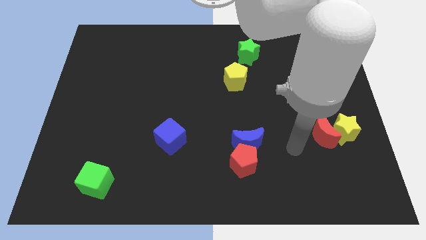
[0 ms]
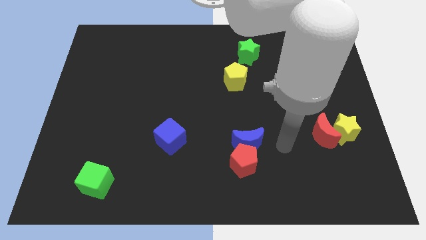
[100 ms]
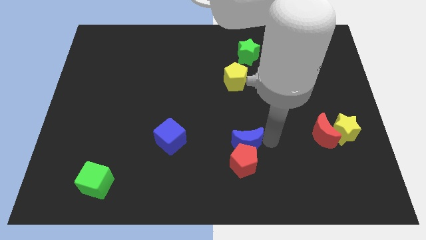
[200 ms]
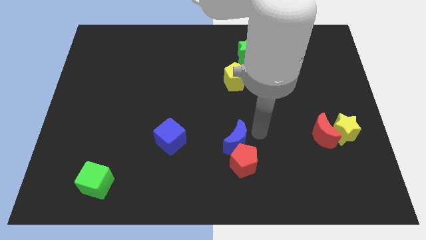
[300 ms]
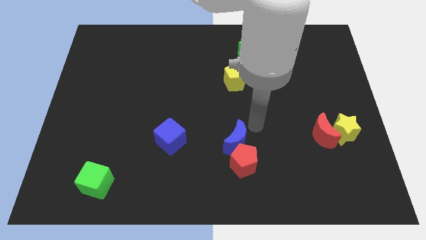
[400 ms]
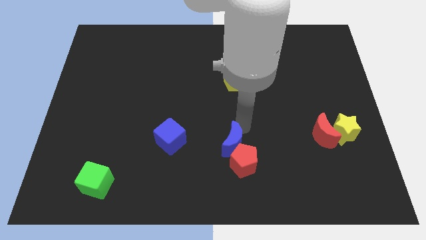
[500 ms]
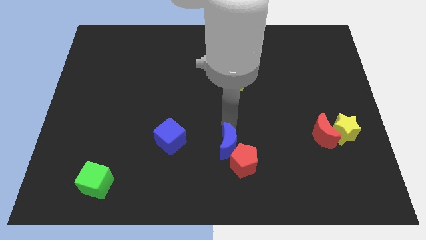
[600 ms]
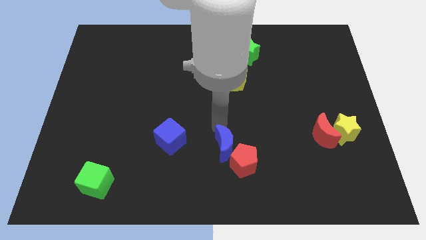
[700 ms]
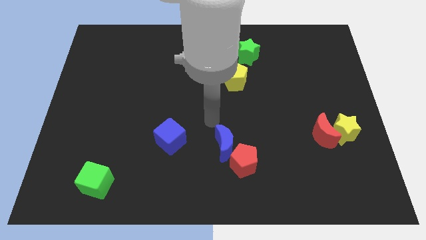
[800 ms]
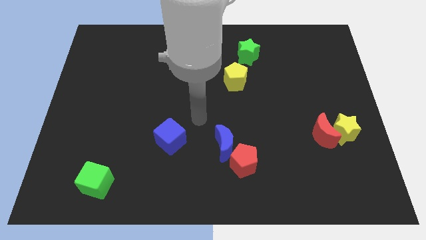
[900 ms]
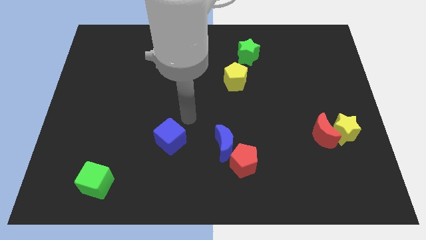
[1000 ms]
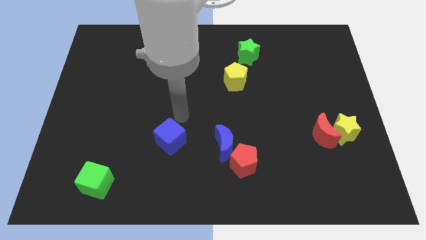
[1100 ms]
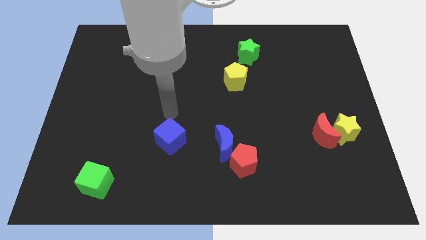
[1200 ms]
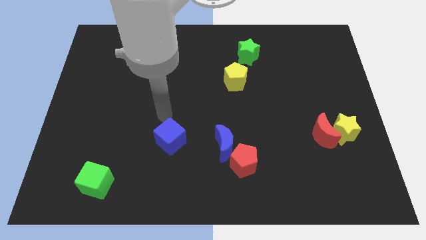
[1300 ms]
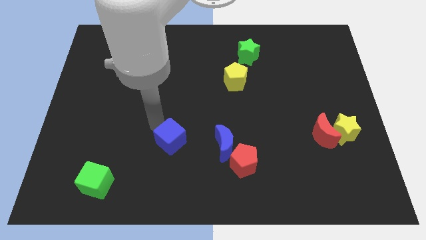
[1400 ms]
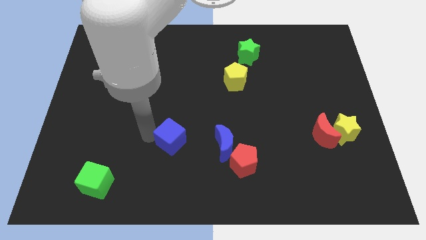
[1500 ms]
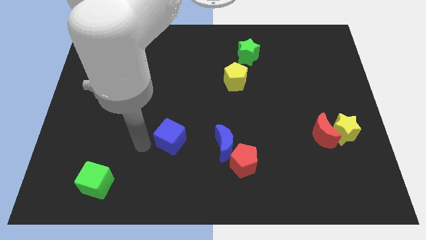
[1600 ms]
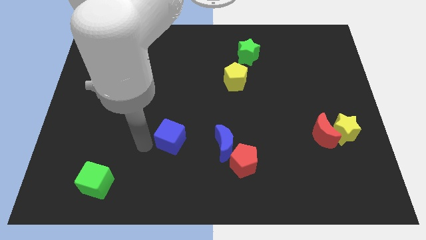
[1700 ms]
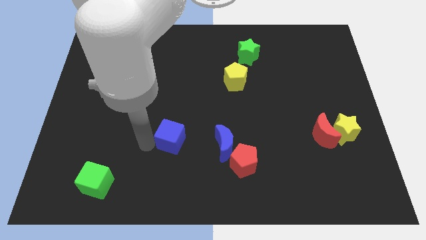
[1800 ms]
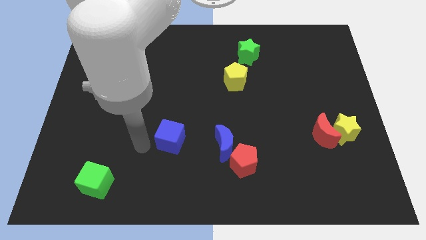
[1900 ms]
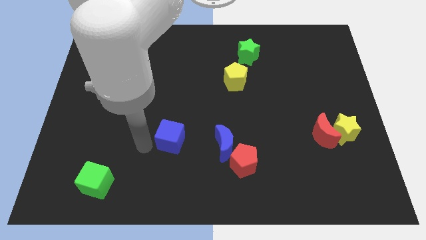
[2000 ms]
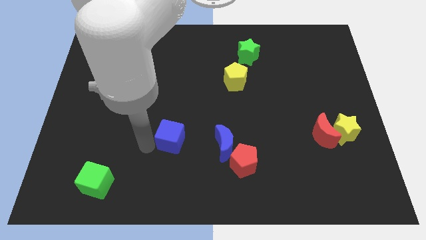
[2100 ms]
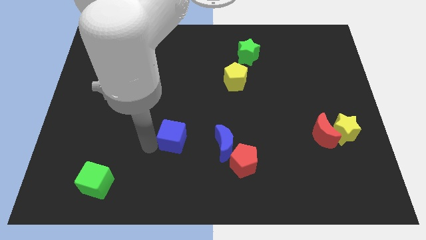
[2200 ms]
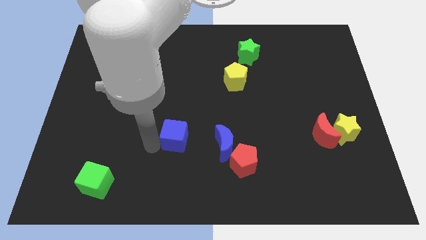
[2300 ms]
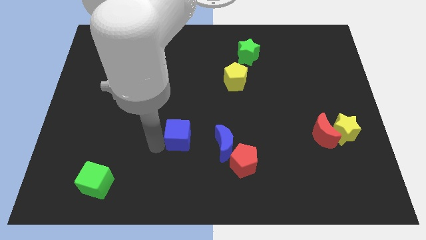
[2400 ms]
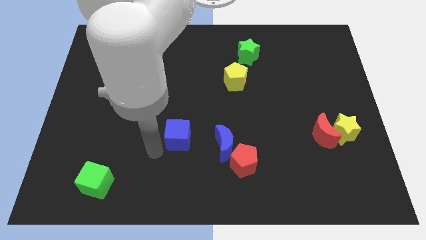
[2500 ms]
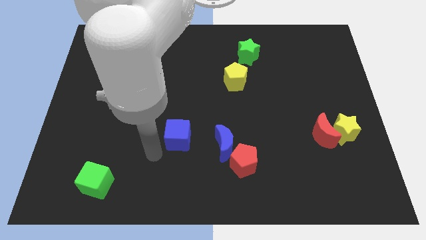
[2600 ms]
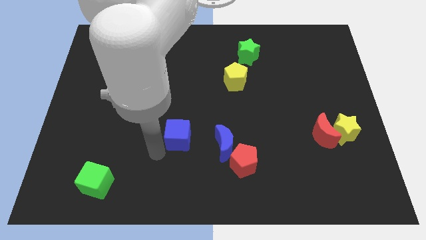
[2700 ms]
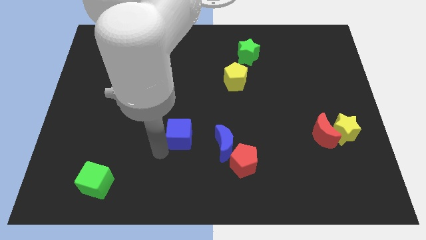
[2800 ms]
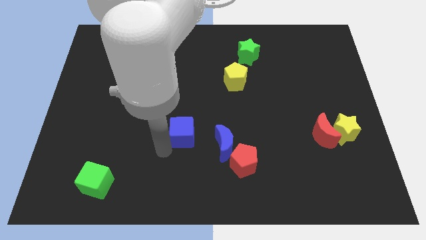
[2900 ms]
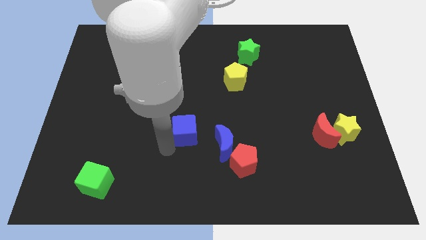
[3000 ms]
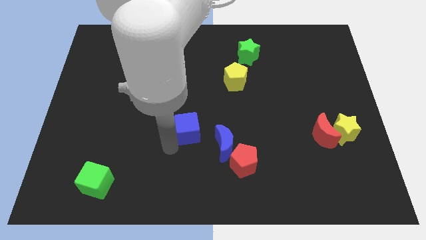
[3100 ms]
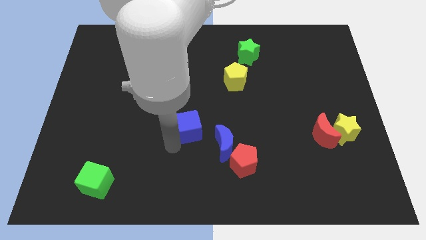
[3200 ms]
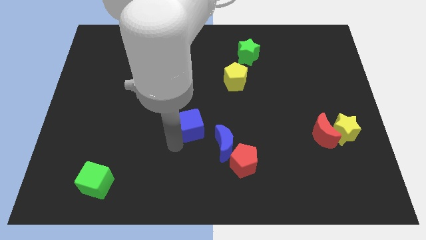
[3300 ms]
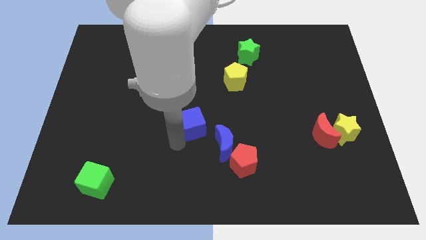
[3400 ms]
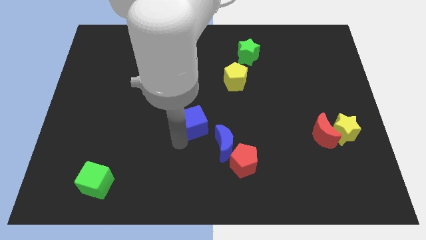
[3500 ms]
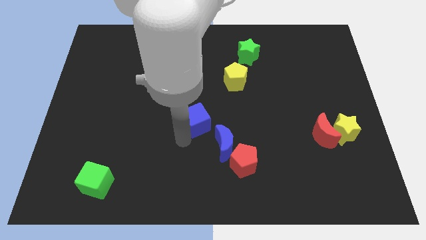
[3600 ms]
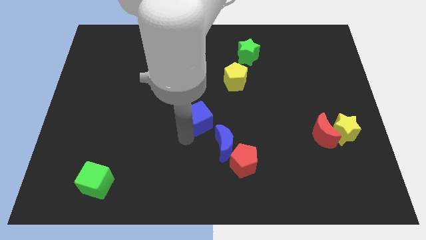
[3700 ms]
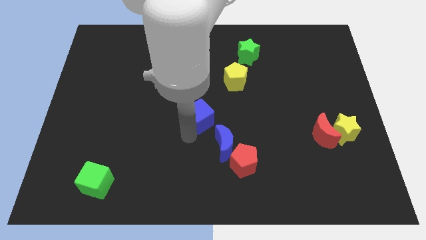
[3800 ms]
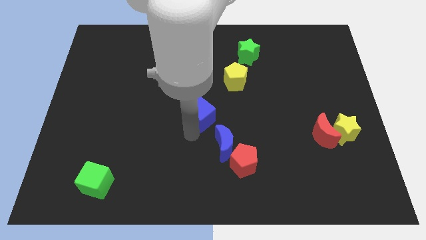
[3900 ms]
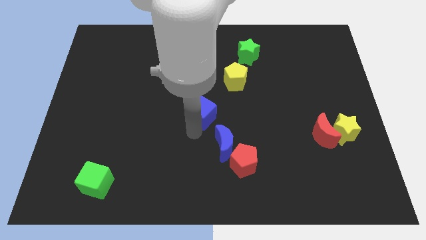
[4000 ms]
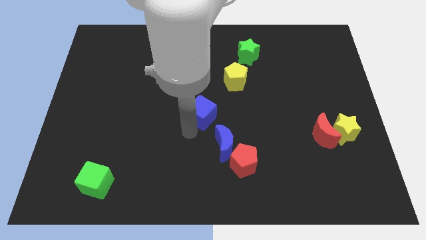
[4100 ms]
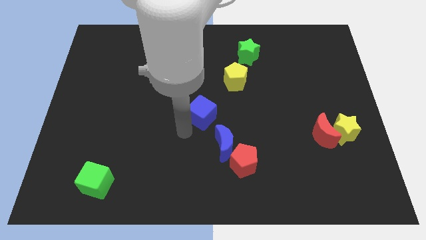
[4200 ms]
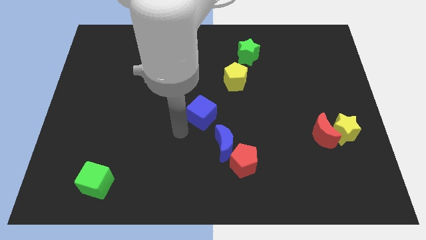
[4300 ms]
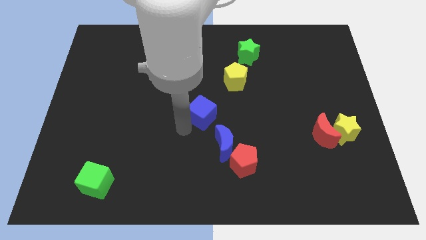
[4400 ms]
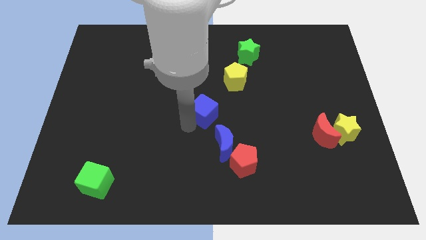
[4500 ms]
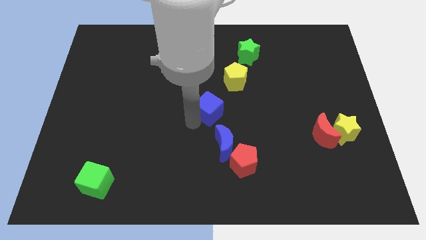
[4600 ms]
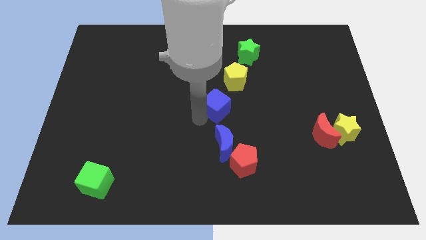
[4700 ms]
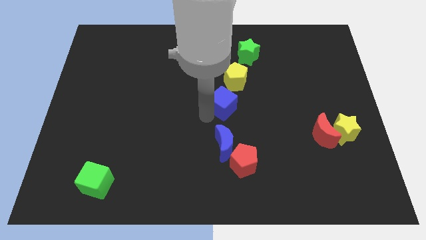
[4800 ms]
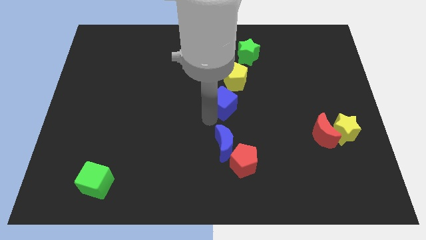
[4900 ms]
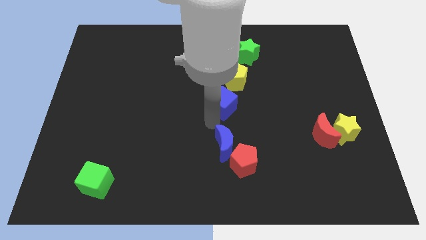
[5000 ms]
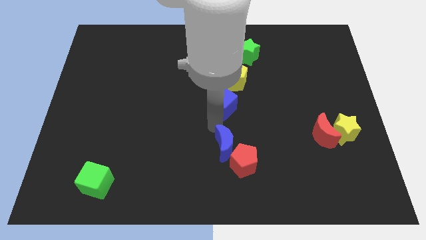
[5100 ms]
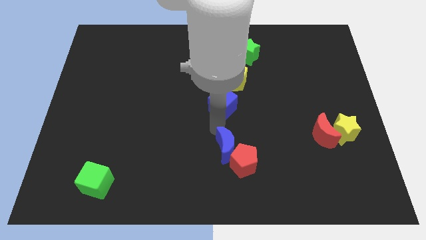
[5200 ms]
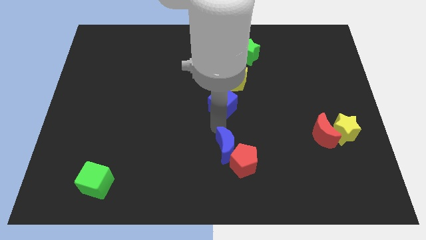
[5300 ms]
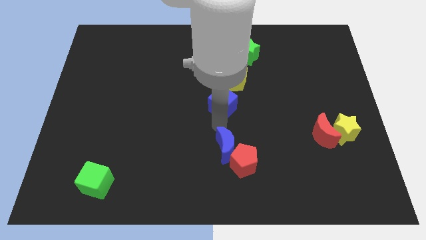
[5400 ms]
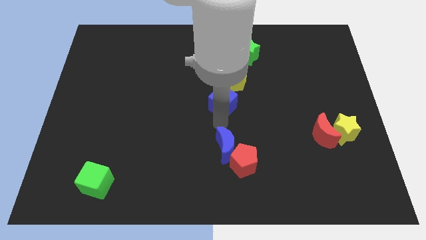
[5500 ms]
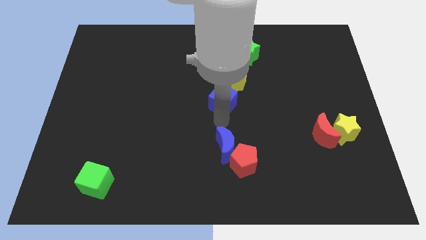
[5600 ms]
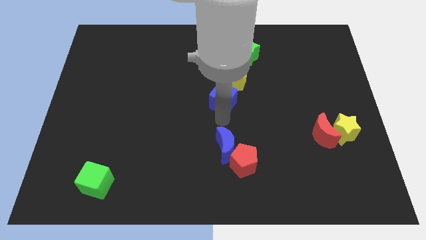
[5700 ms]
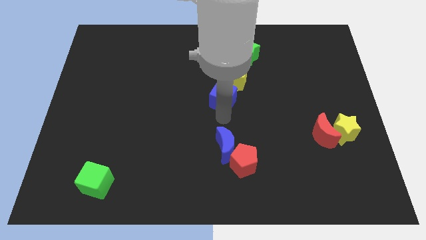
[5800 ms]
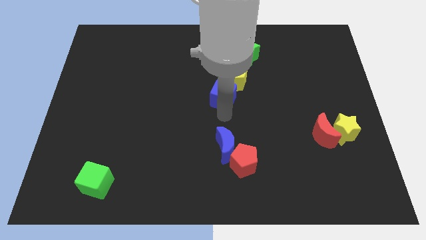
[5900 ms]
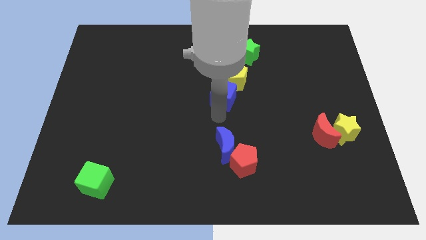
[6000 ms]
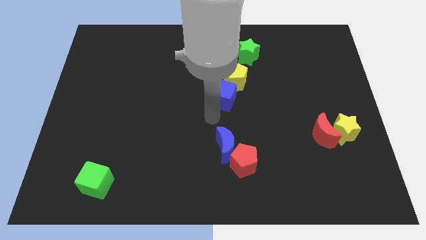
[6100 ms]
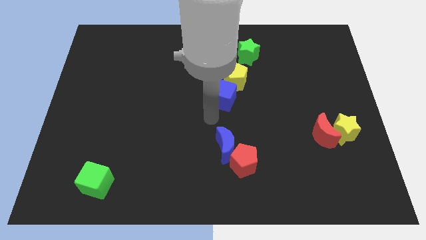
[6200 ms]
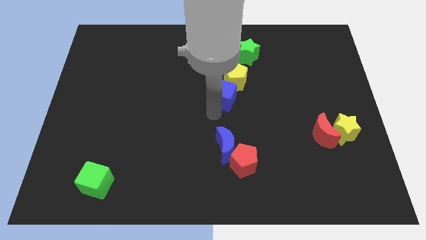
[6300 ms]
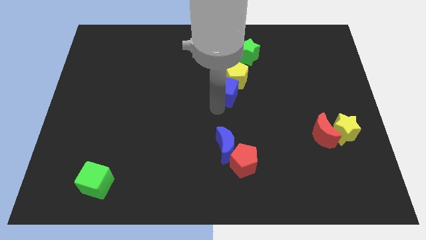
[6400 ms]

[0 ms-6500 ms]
put the blue cube towards the yellow pentagon

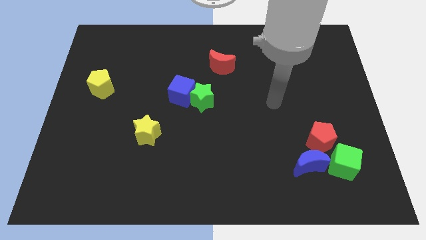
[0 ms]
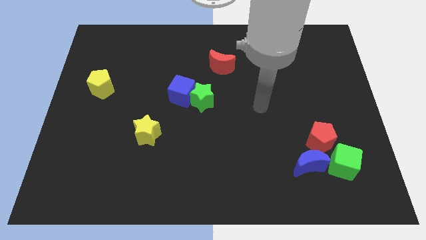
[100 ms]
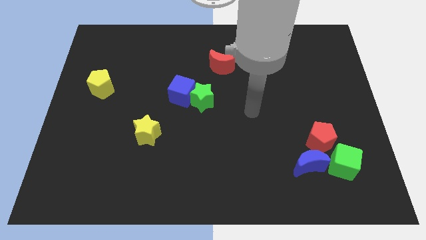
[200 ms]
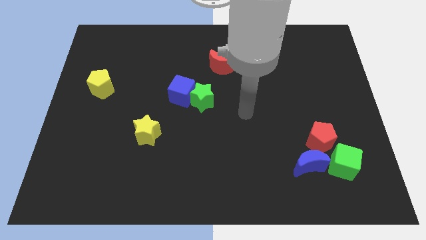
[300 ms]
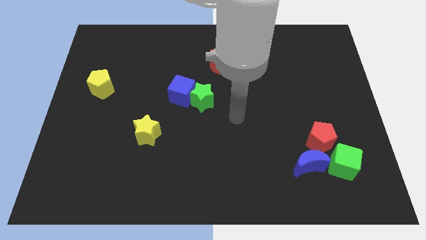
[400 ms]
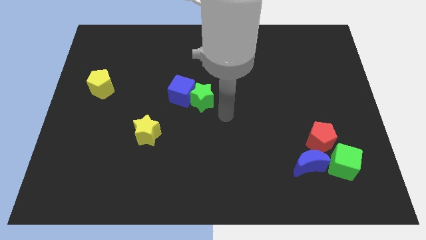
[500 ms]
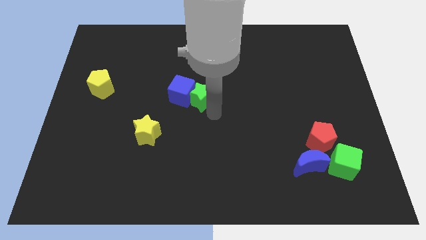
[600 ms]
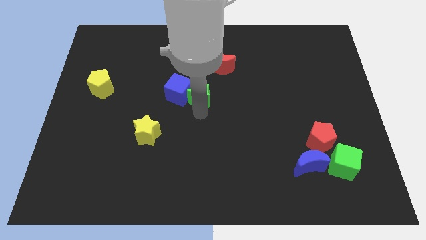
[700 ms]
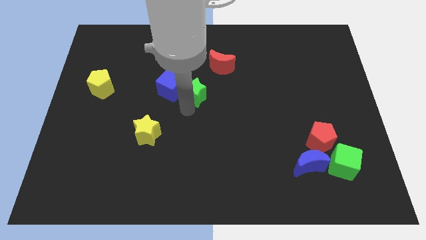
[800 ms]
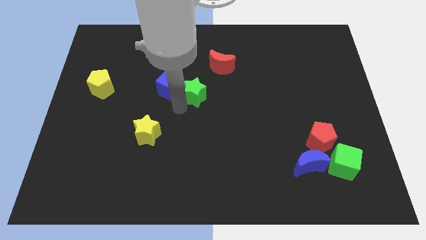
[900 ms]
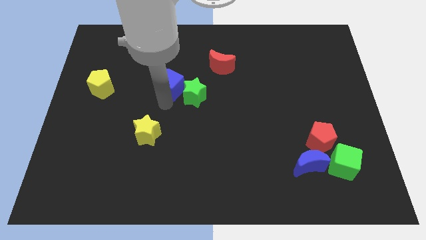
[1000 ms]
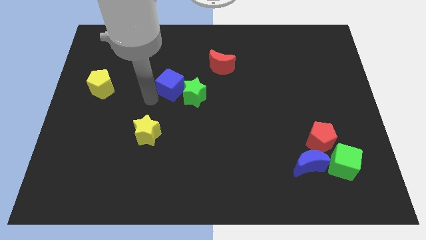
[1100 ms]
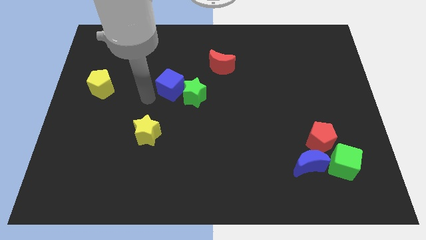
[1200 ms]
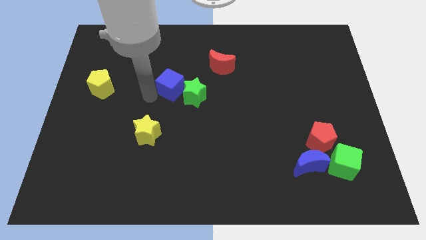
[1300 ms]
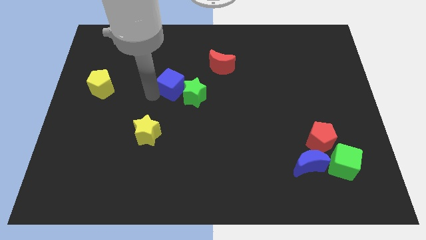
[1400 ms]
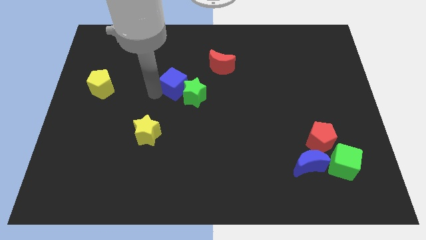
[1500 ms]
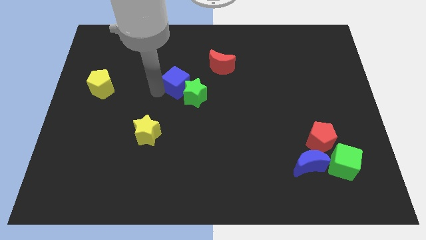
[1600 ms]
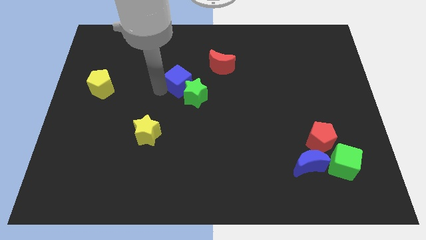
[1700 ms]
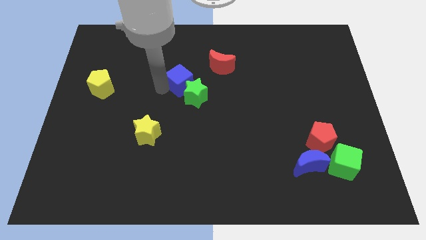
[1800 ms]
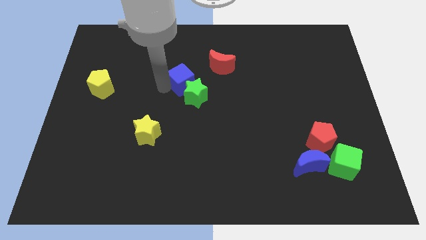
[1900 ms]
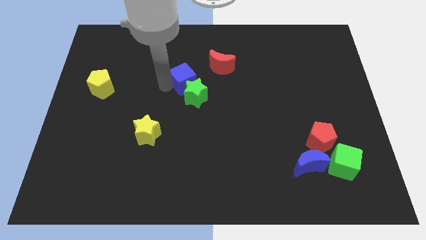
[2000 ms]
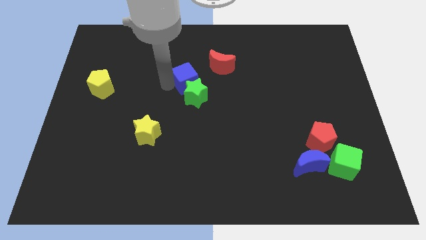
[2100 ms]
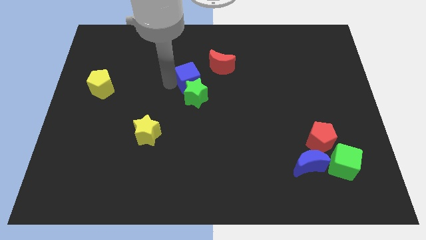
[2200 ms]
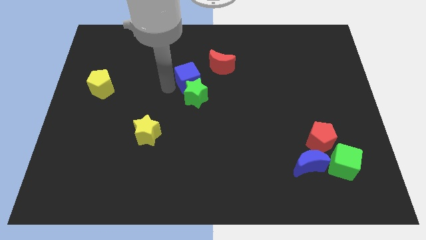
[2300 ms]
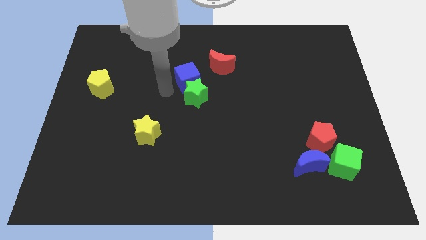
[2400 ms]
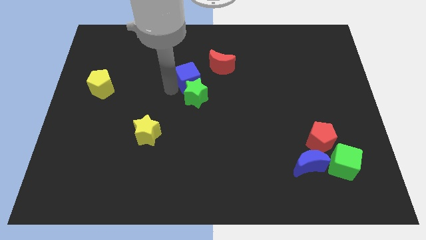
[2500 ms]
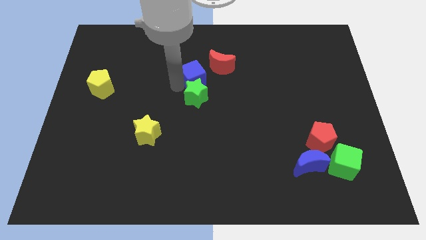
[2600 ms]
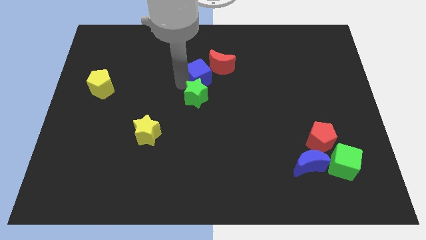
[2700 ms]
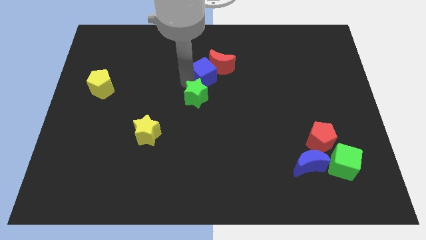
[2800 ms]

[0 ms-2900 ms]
slide the blue cube to the red moon
